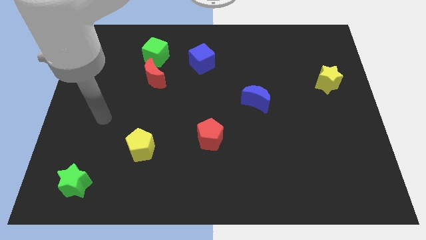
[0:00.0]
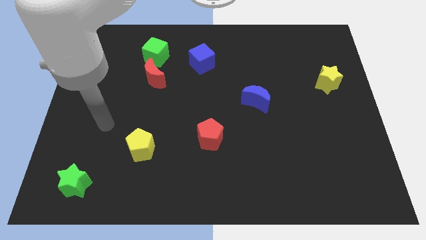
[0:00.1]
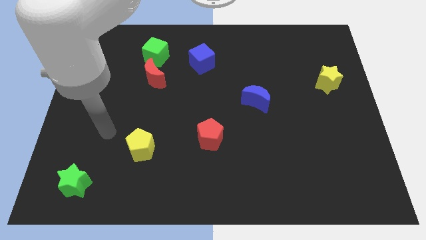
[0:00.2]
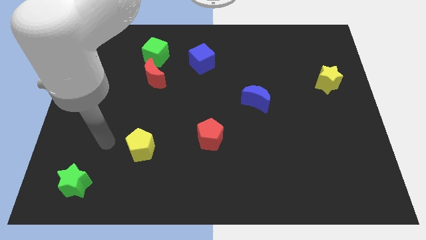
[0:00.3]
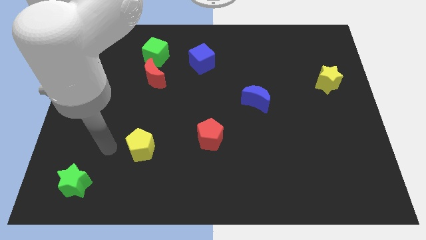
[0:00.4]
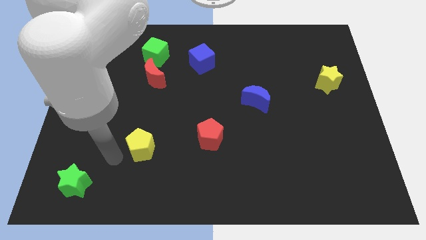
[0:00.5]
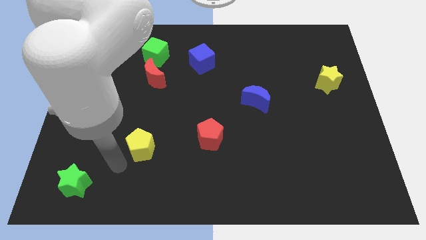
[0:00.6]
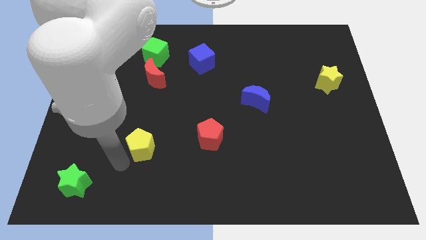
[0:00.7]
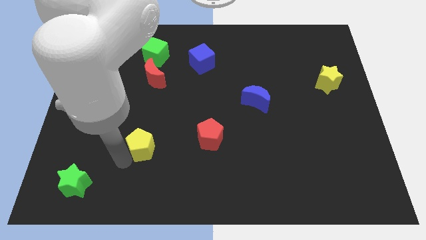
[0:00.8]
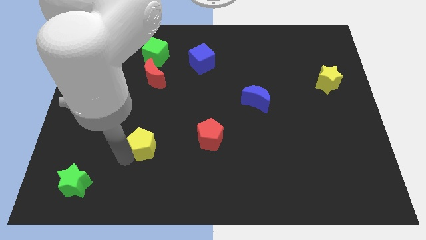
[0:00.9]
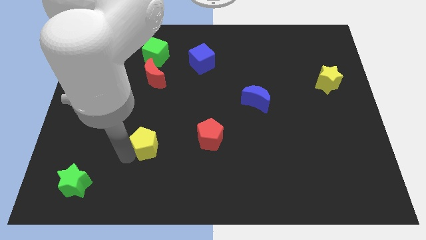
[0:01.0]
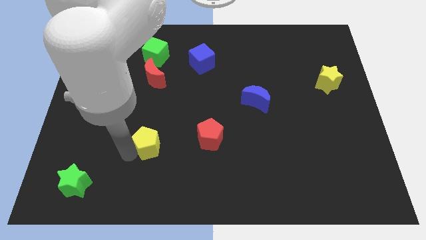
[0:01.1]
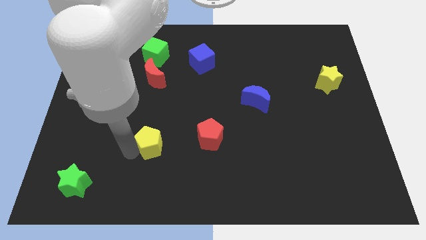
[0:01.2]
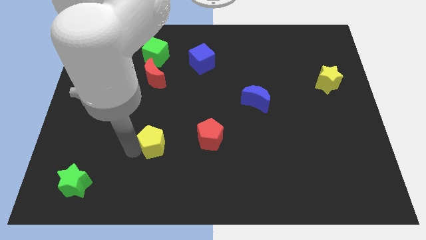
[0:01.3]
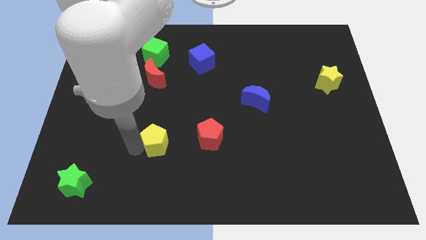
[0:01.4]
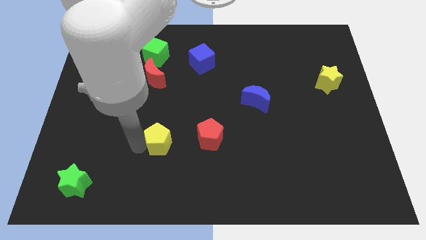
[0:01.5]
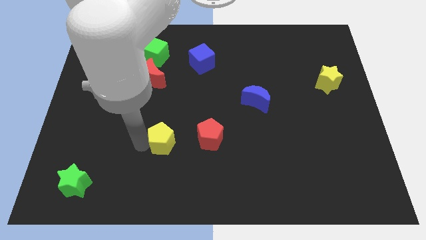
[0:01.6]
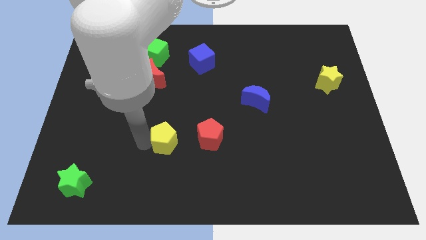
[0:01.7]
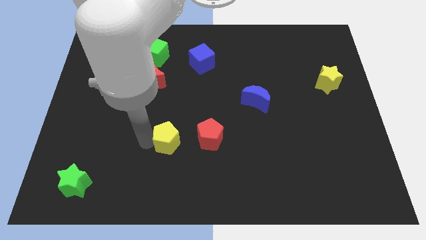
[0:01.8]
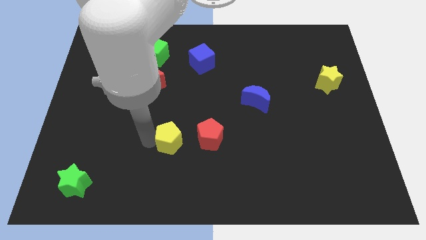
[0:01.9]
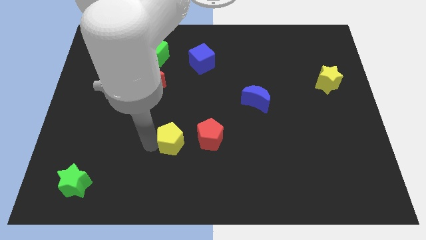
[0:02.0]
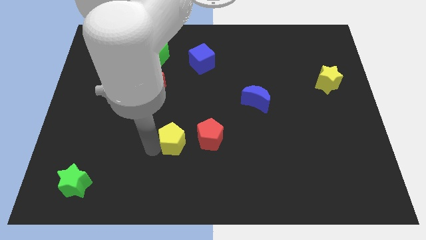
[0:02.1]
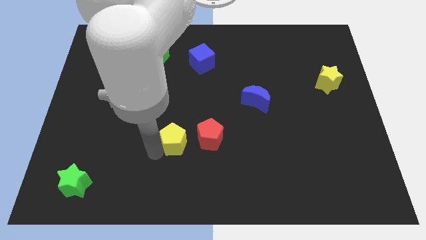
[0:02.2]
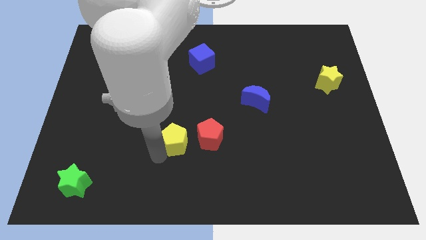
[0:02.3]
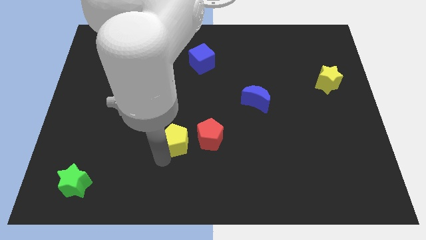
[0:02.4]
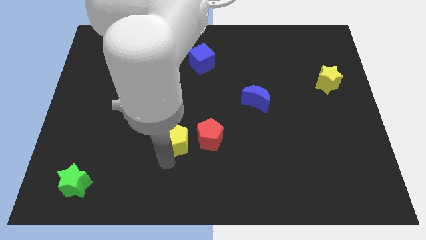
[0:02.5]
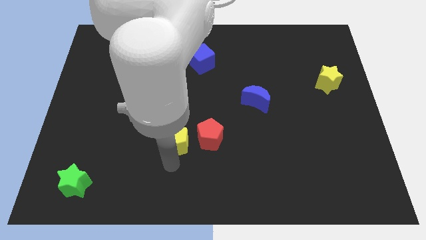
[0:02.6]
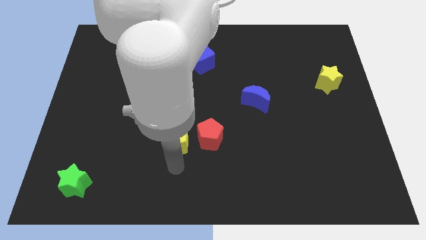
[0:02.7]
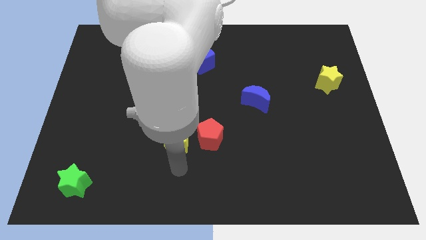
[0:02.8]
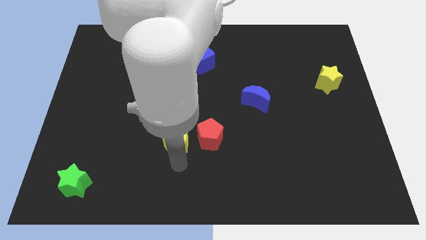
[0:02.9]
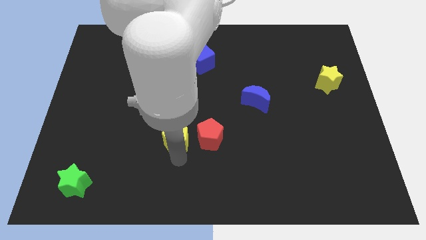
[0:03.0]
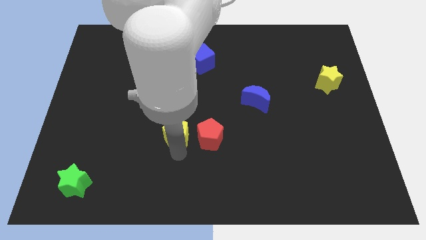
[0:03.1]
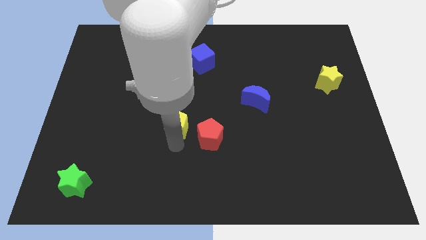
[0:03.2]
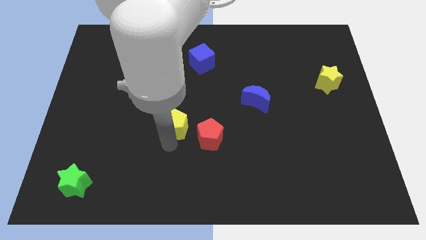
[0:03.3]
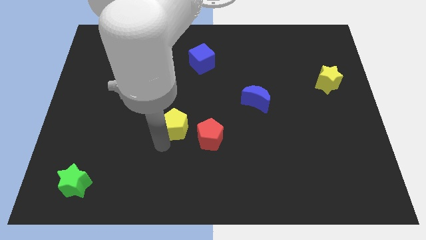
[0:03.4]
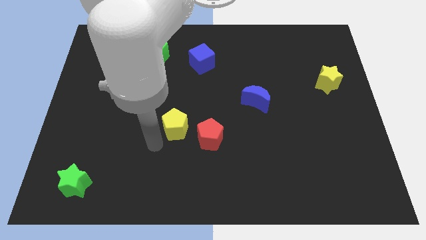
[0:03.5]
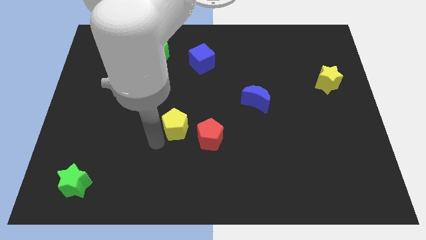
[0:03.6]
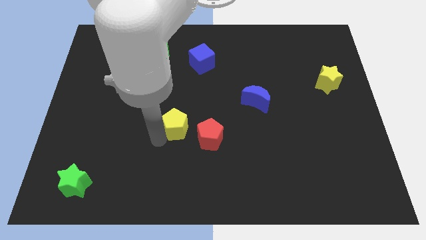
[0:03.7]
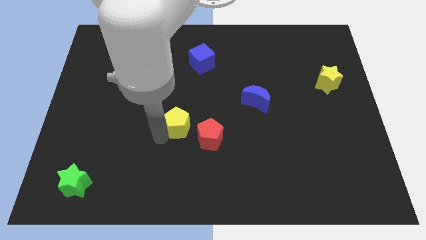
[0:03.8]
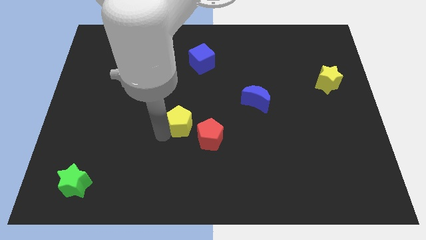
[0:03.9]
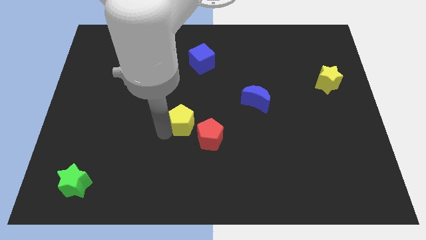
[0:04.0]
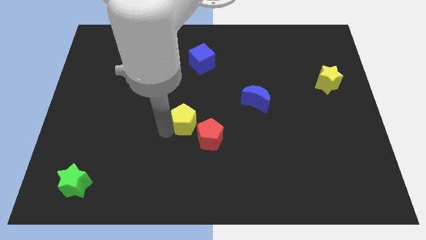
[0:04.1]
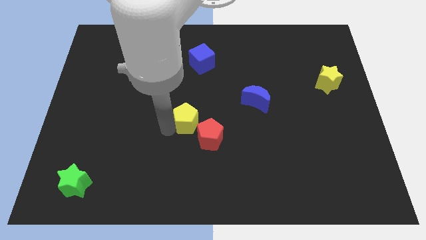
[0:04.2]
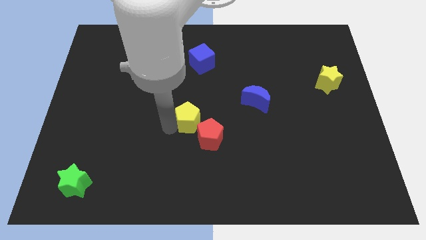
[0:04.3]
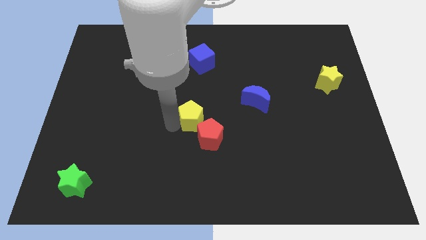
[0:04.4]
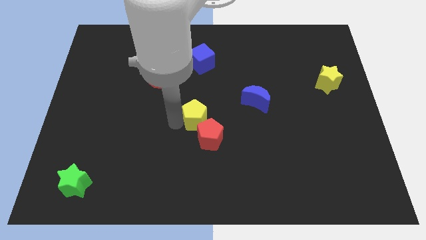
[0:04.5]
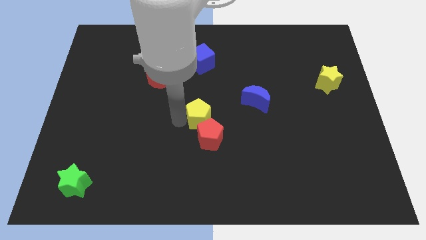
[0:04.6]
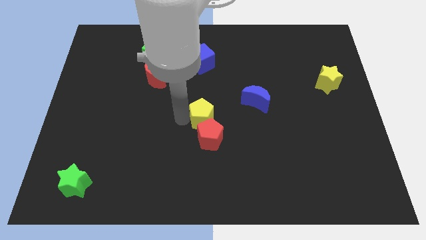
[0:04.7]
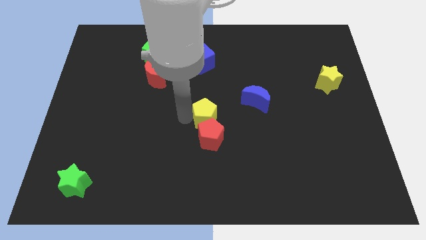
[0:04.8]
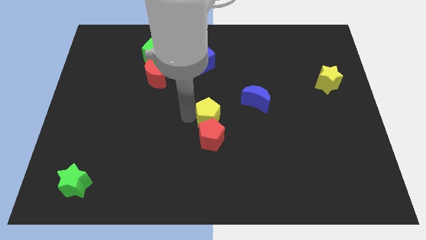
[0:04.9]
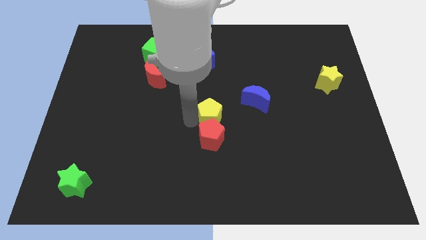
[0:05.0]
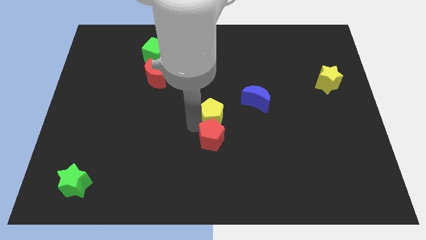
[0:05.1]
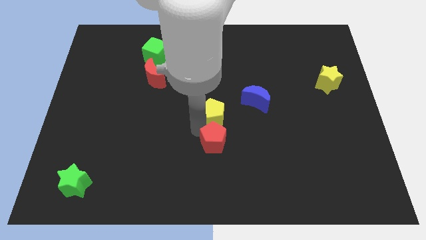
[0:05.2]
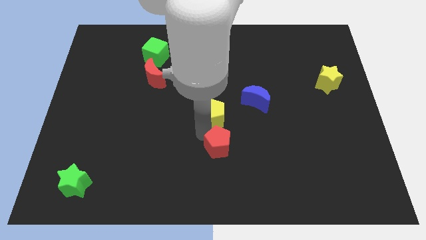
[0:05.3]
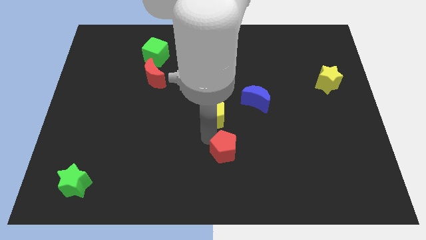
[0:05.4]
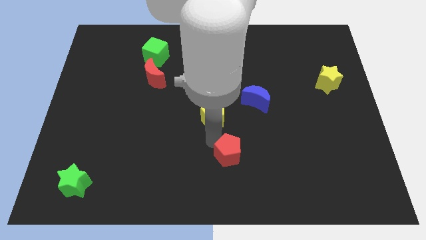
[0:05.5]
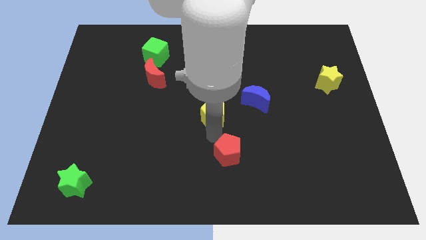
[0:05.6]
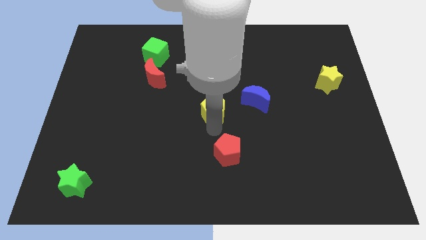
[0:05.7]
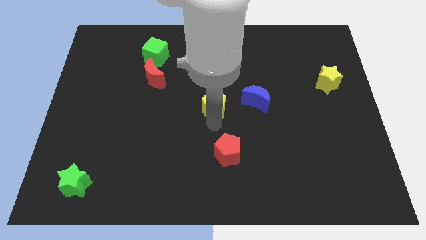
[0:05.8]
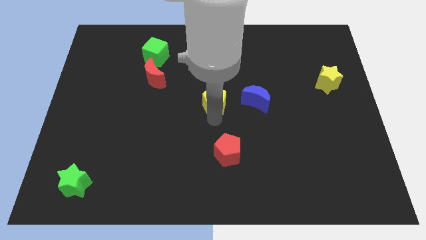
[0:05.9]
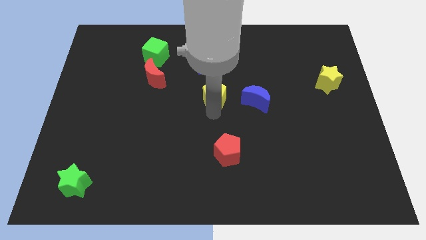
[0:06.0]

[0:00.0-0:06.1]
move the yellow pentagon diagonally up and right

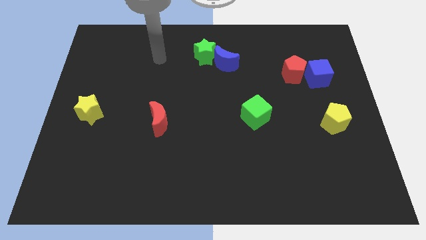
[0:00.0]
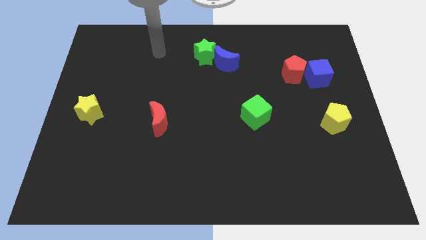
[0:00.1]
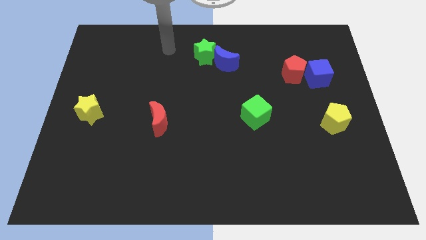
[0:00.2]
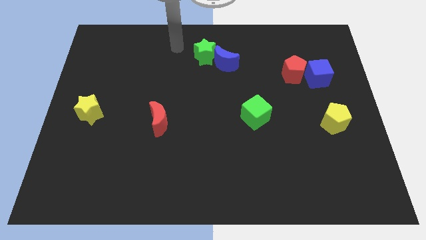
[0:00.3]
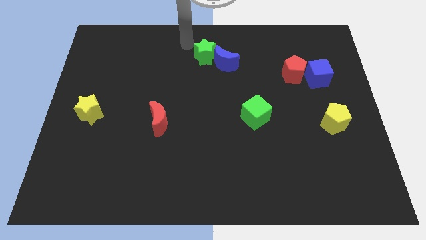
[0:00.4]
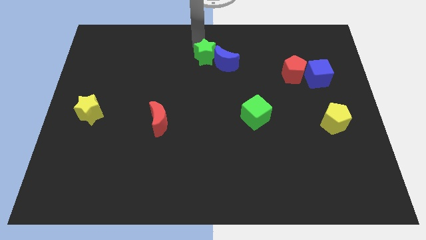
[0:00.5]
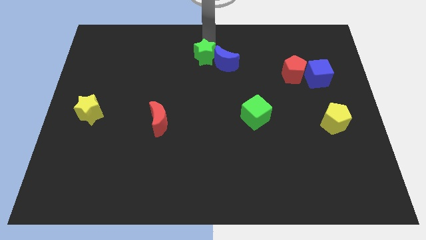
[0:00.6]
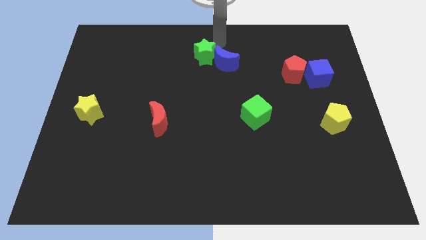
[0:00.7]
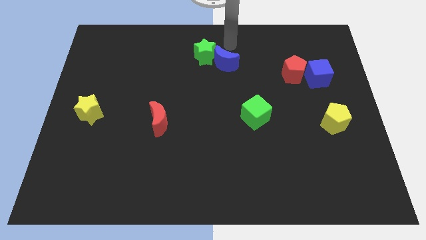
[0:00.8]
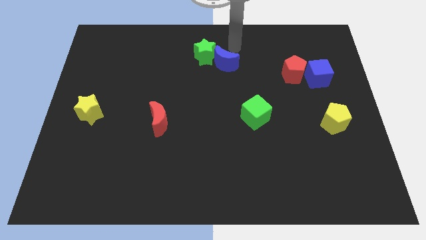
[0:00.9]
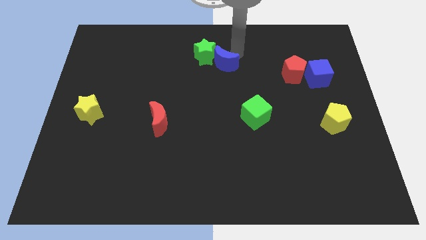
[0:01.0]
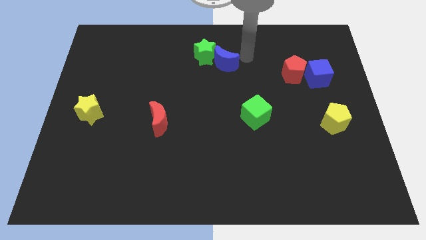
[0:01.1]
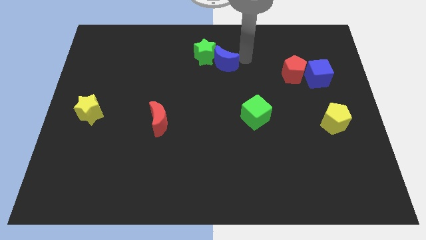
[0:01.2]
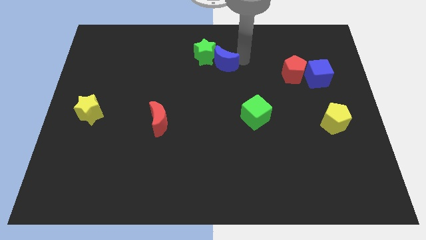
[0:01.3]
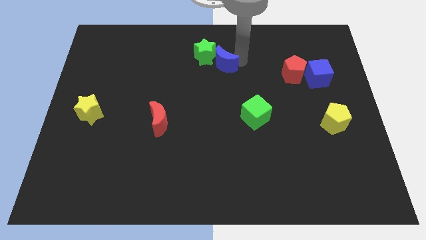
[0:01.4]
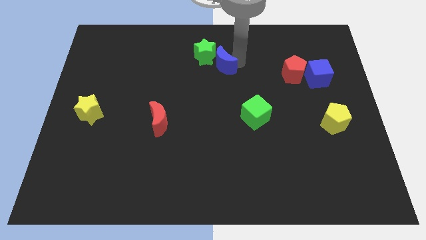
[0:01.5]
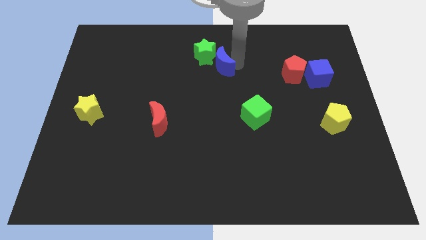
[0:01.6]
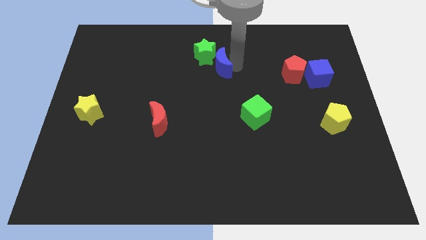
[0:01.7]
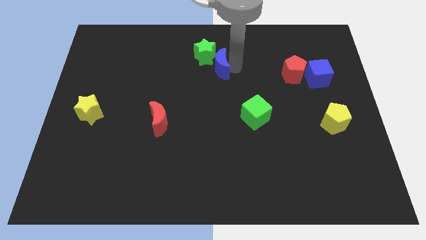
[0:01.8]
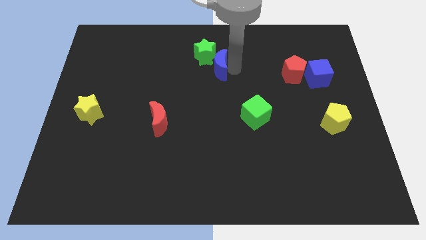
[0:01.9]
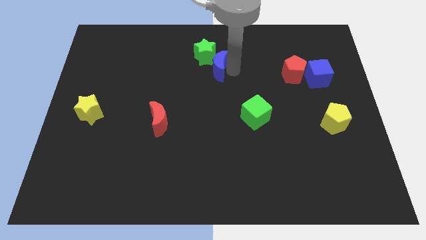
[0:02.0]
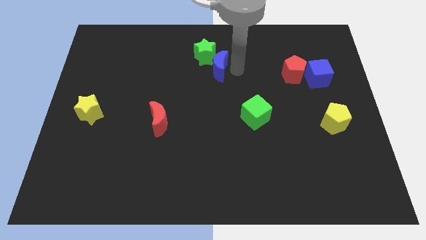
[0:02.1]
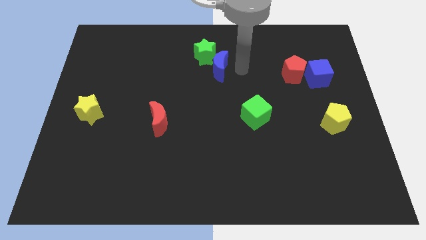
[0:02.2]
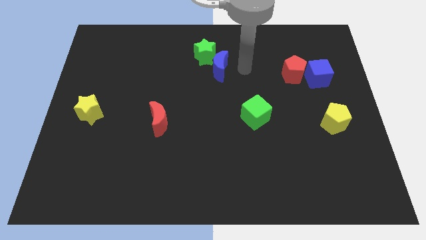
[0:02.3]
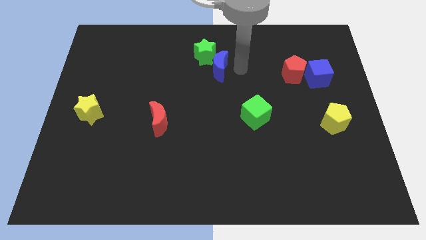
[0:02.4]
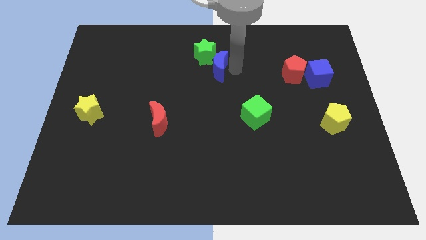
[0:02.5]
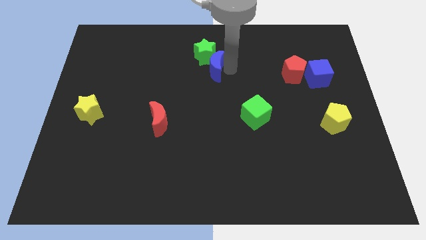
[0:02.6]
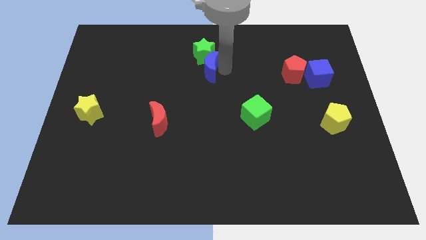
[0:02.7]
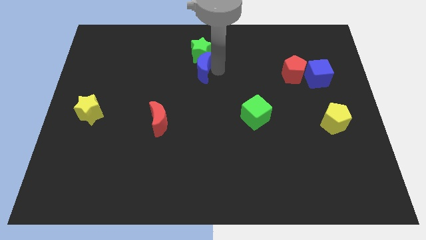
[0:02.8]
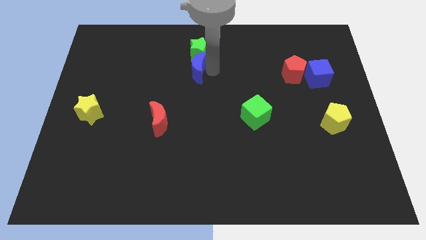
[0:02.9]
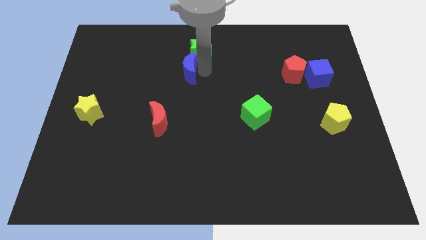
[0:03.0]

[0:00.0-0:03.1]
slide the blue moon a bit left
